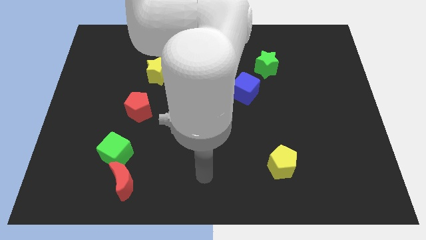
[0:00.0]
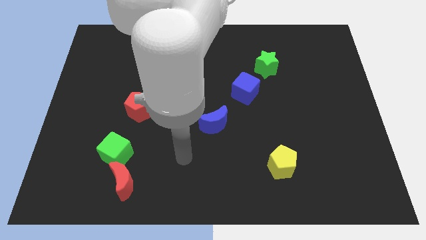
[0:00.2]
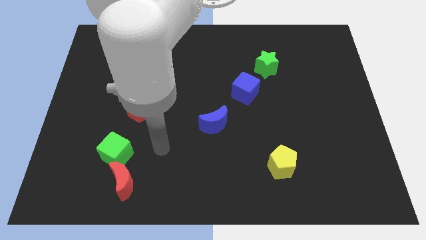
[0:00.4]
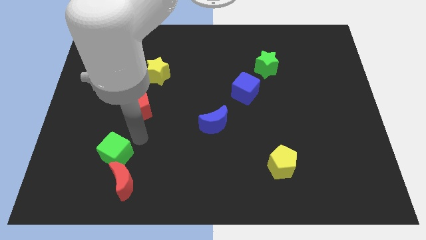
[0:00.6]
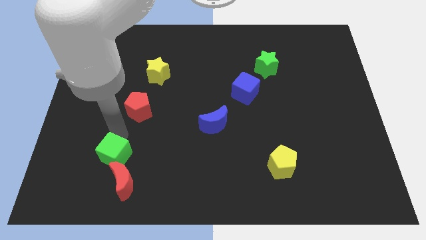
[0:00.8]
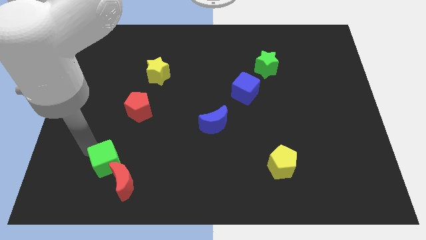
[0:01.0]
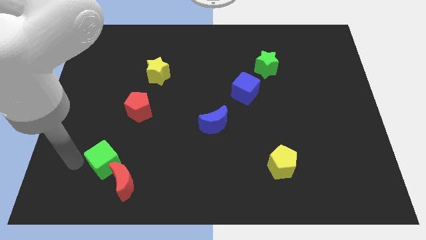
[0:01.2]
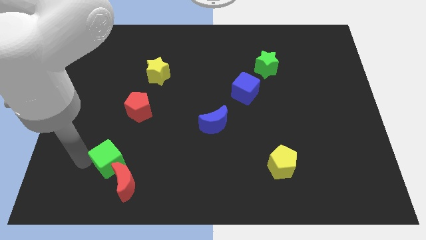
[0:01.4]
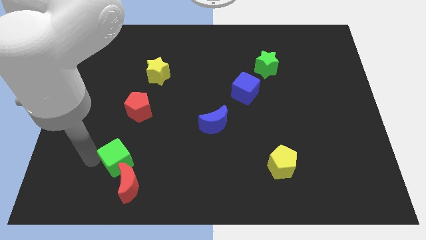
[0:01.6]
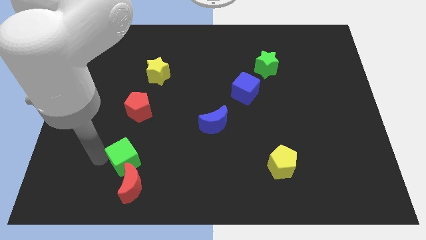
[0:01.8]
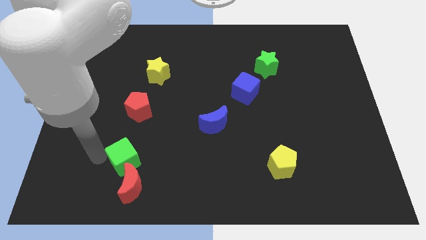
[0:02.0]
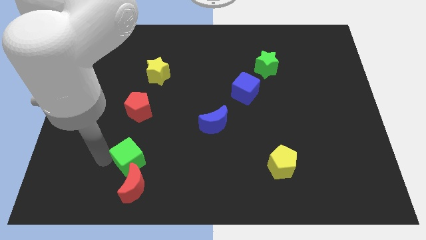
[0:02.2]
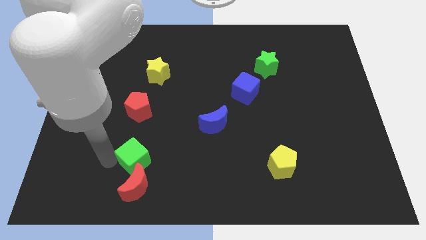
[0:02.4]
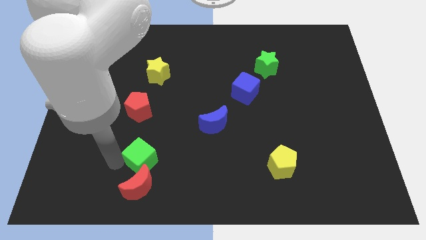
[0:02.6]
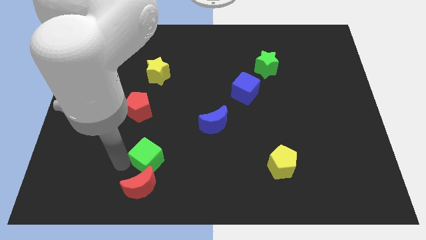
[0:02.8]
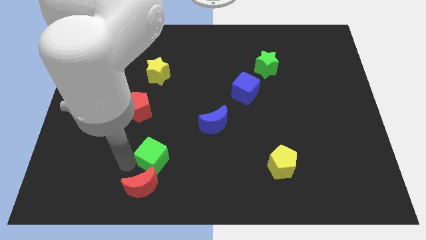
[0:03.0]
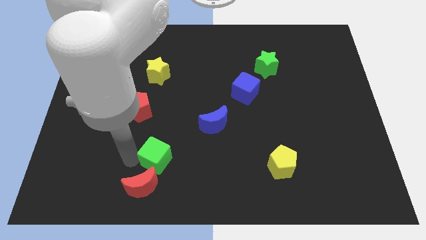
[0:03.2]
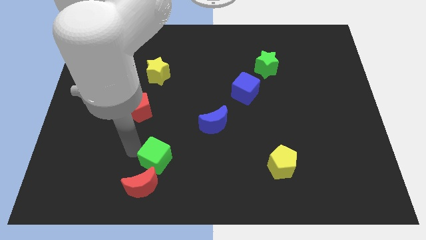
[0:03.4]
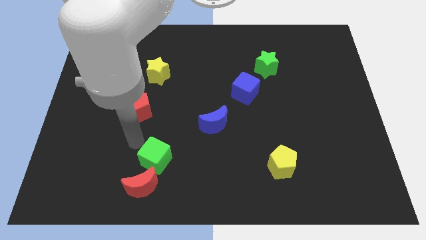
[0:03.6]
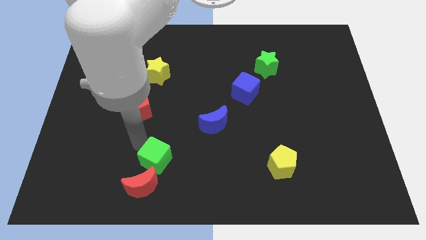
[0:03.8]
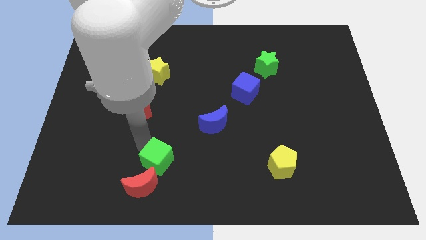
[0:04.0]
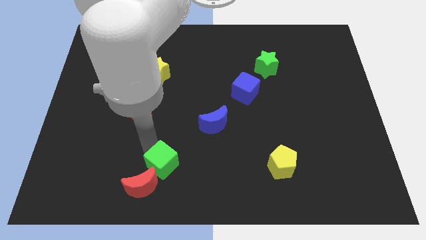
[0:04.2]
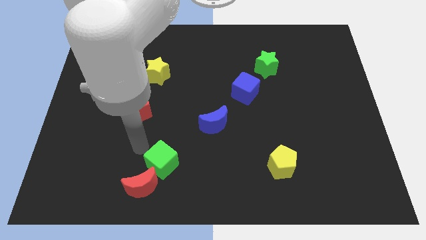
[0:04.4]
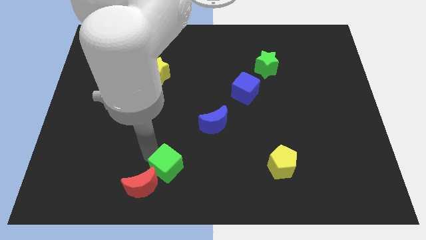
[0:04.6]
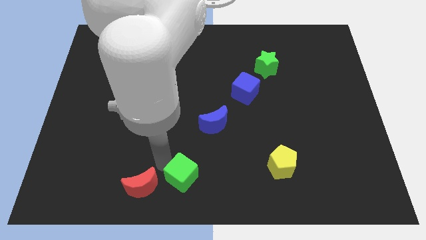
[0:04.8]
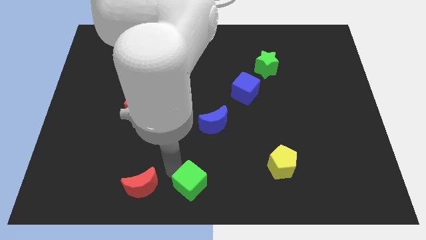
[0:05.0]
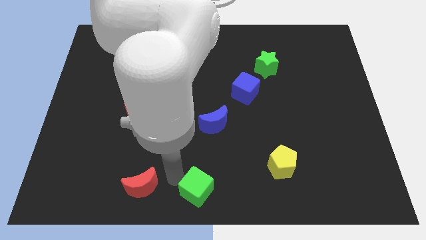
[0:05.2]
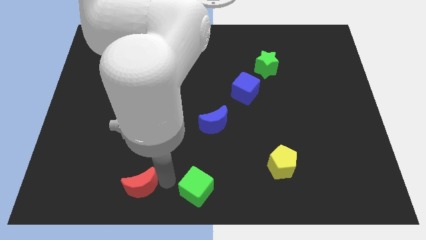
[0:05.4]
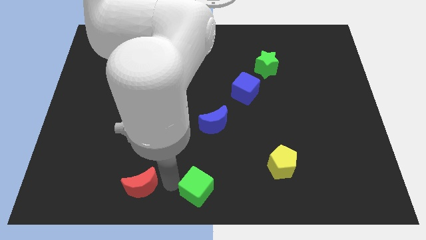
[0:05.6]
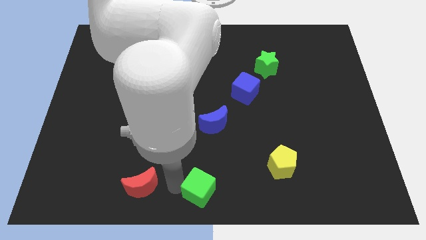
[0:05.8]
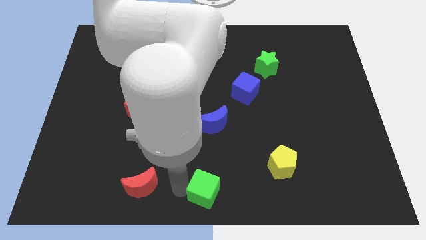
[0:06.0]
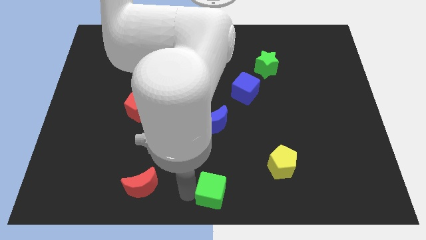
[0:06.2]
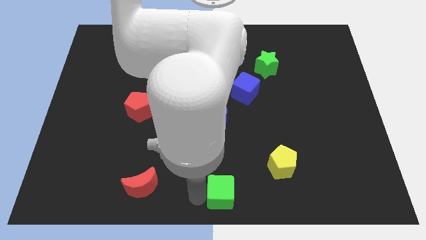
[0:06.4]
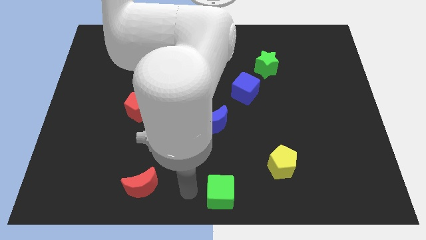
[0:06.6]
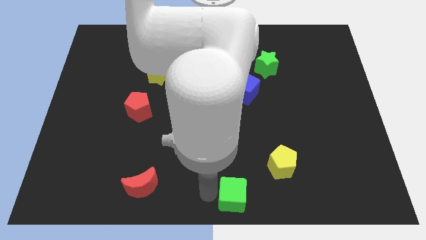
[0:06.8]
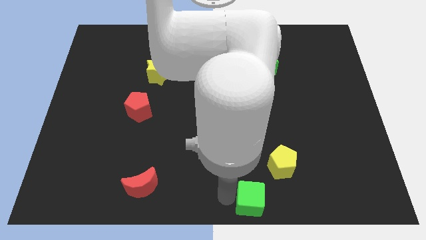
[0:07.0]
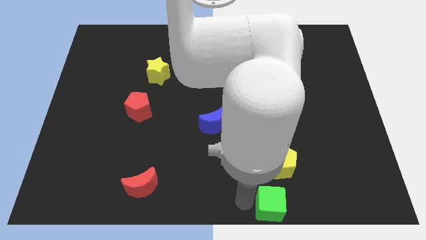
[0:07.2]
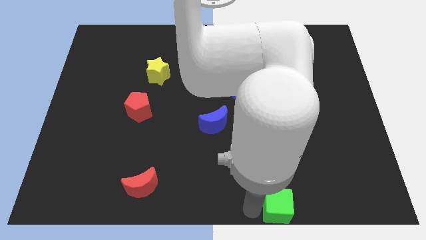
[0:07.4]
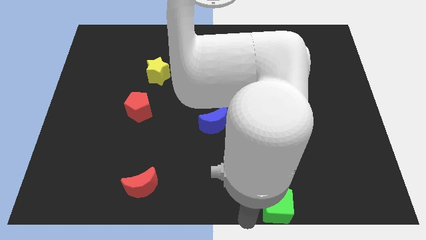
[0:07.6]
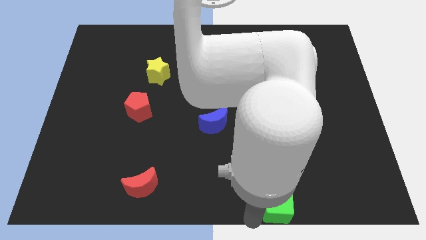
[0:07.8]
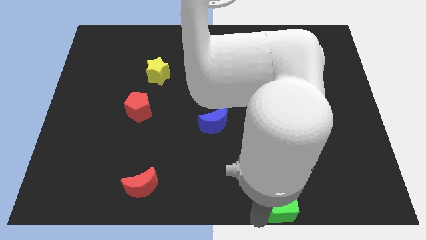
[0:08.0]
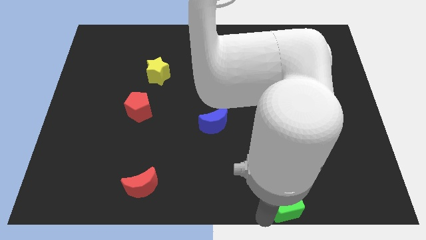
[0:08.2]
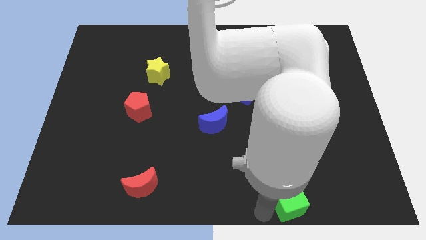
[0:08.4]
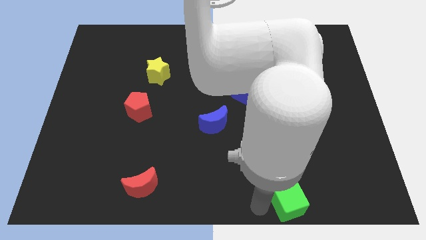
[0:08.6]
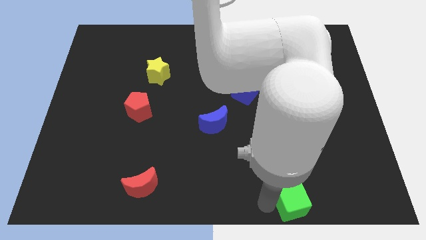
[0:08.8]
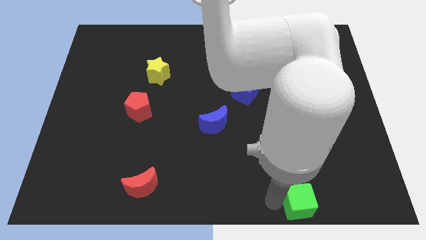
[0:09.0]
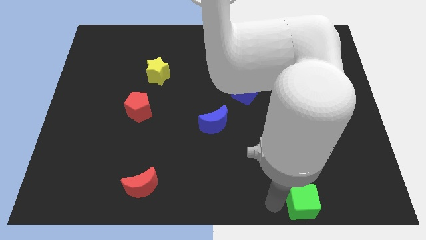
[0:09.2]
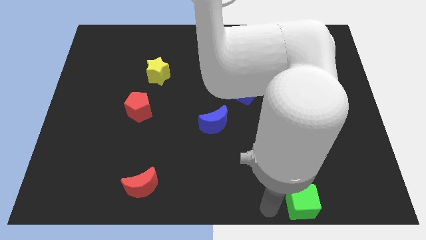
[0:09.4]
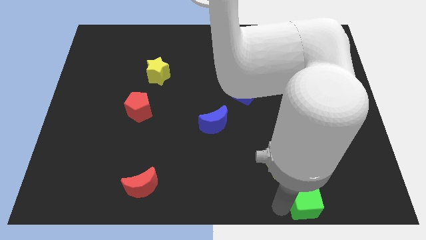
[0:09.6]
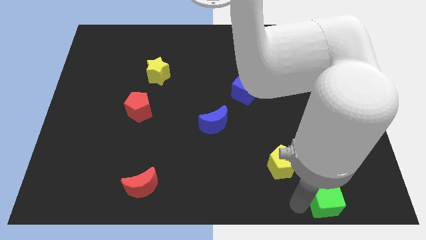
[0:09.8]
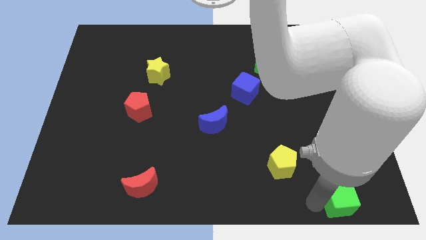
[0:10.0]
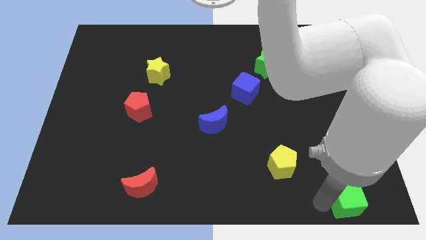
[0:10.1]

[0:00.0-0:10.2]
push the green cube to the bottom right corner

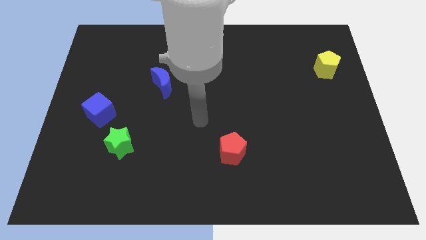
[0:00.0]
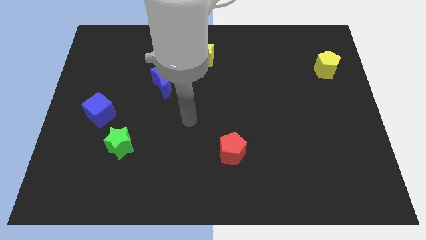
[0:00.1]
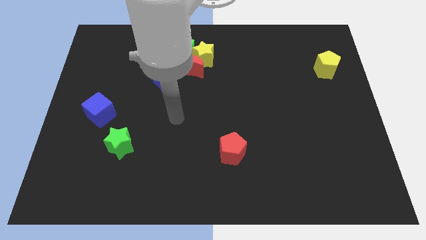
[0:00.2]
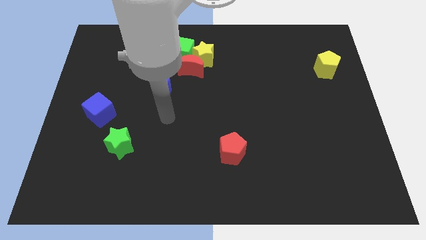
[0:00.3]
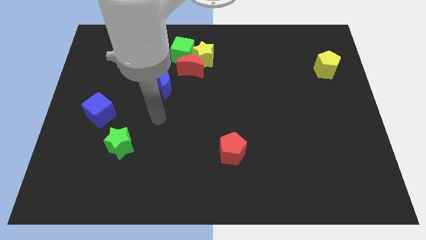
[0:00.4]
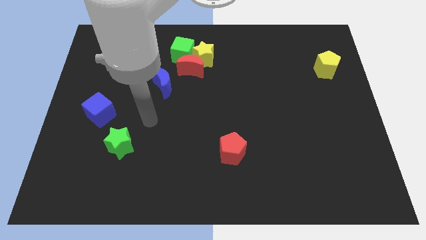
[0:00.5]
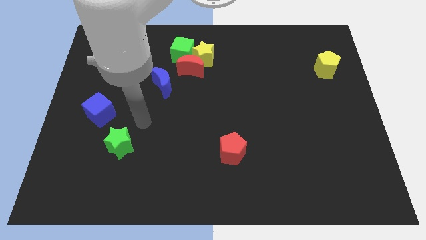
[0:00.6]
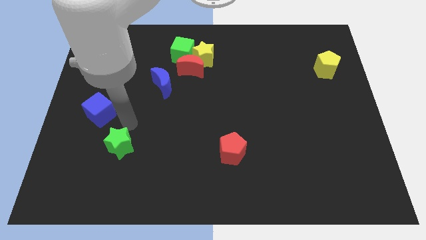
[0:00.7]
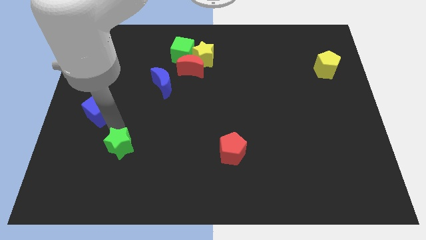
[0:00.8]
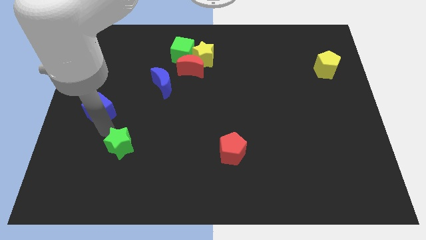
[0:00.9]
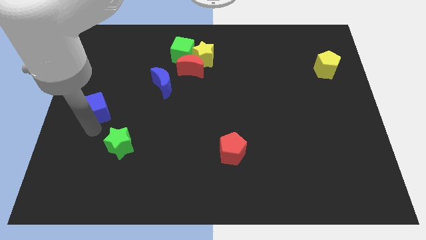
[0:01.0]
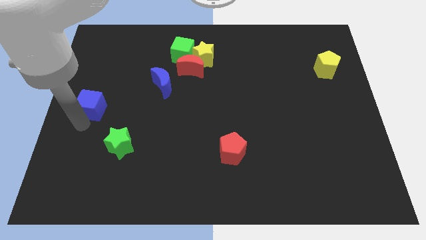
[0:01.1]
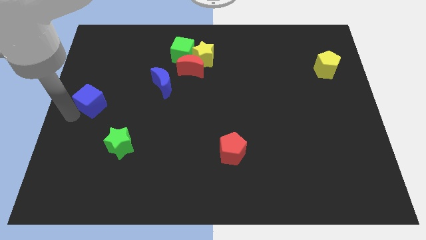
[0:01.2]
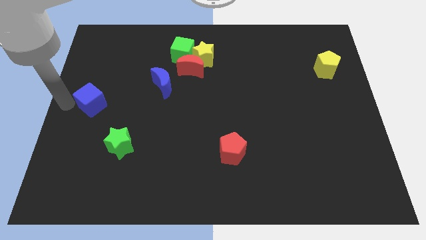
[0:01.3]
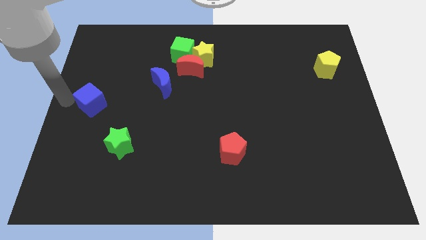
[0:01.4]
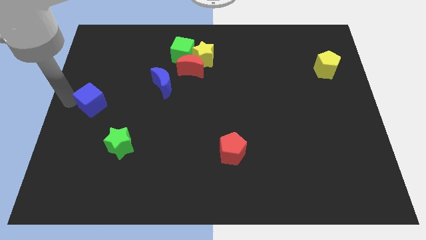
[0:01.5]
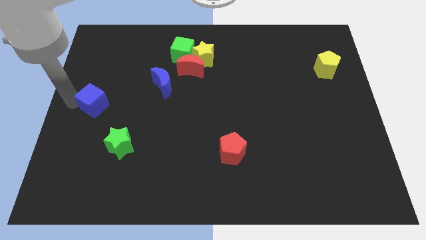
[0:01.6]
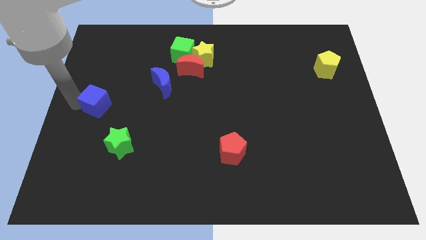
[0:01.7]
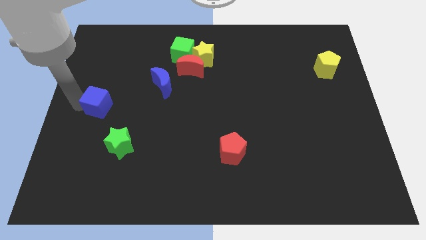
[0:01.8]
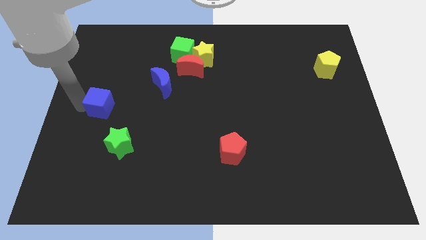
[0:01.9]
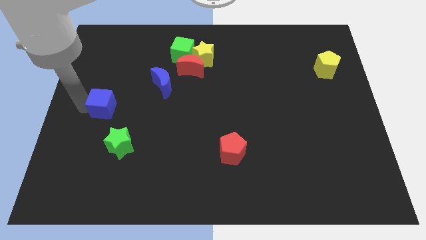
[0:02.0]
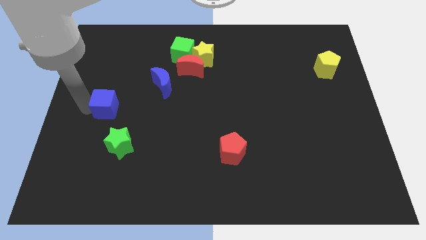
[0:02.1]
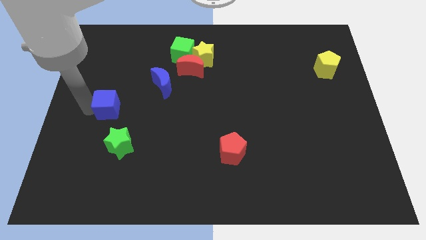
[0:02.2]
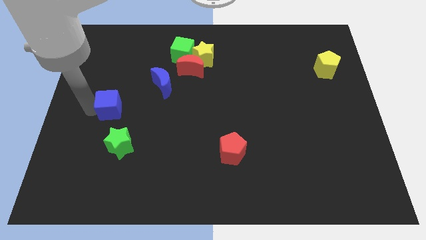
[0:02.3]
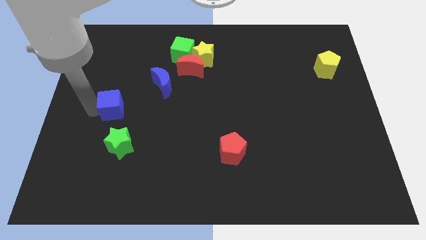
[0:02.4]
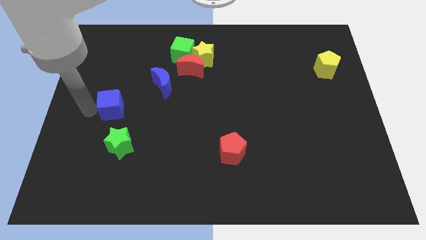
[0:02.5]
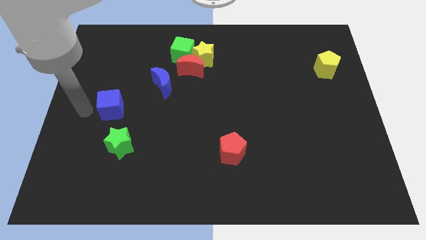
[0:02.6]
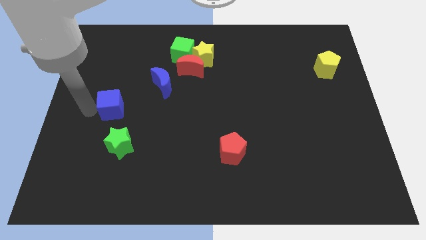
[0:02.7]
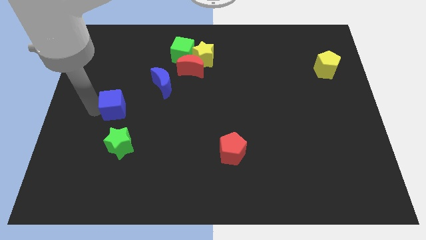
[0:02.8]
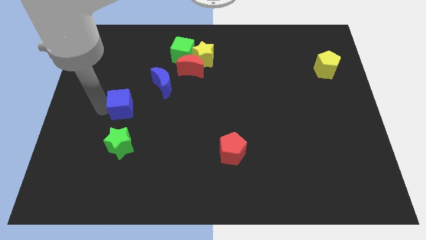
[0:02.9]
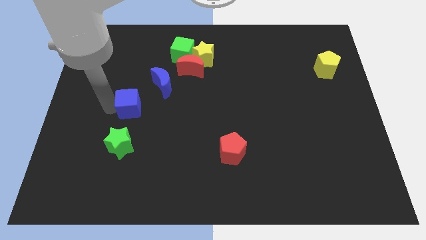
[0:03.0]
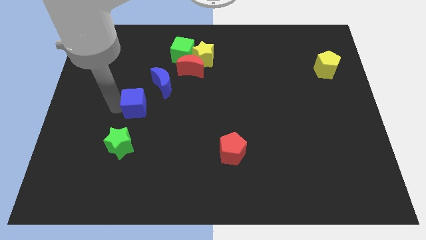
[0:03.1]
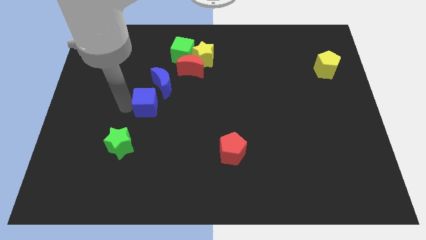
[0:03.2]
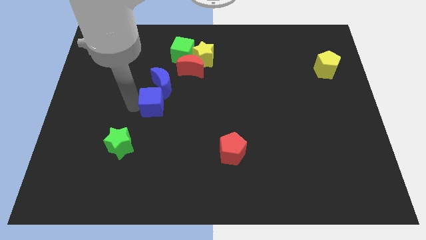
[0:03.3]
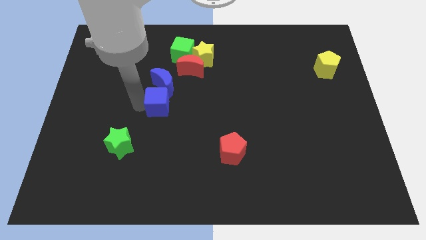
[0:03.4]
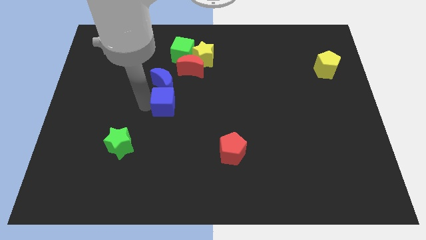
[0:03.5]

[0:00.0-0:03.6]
slide the blue cube to the center of the board
